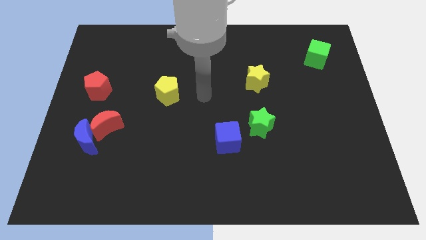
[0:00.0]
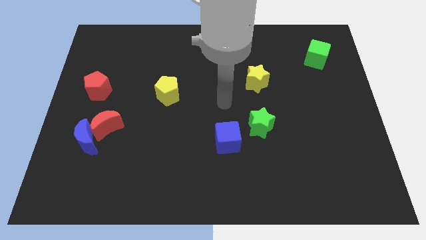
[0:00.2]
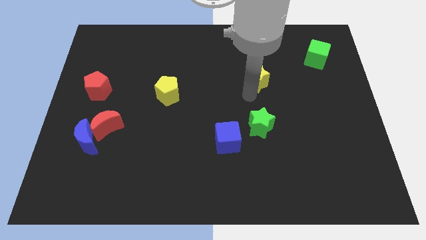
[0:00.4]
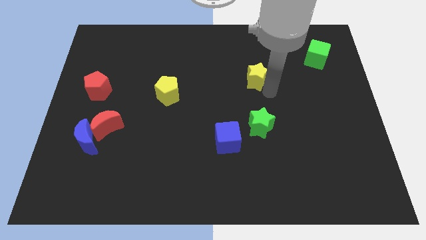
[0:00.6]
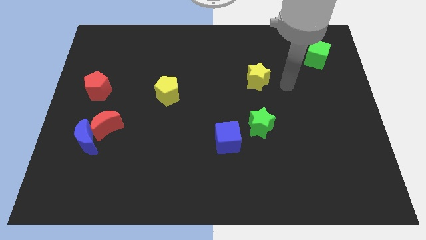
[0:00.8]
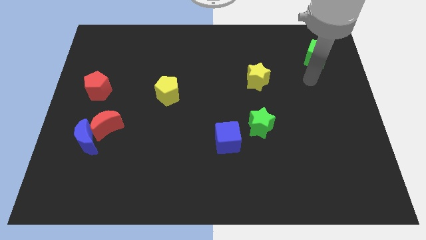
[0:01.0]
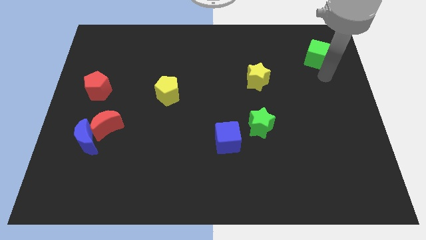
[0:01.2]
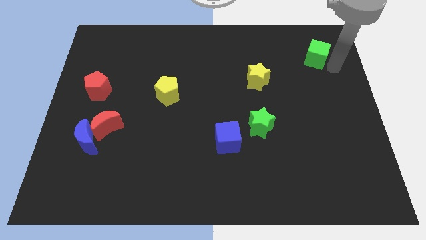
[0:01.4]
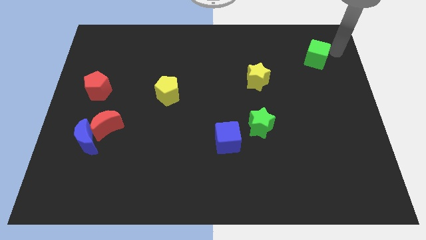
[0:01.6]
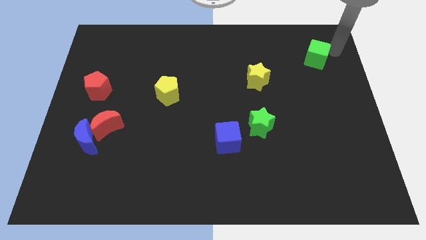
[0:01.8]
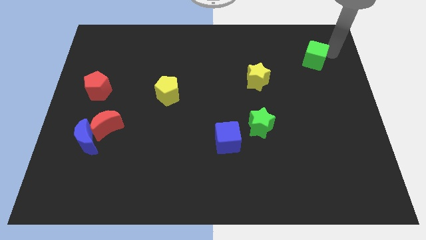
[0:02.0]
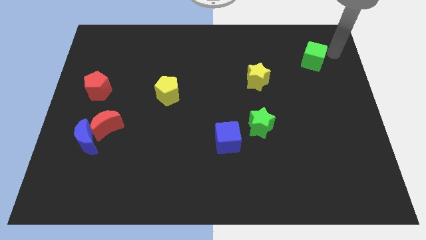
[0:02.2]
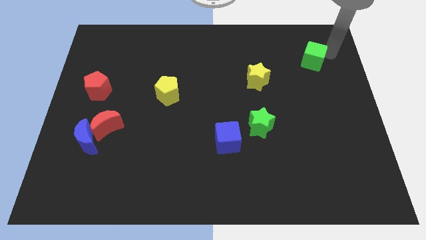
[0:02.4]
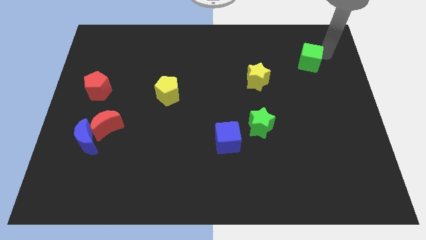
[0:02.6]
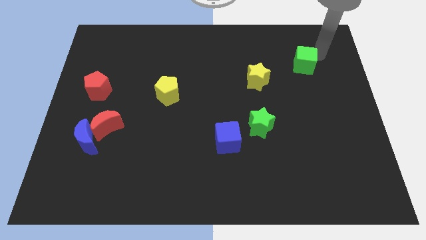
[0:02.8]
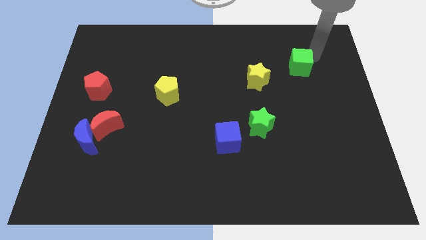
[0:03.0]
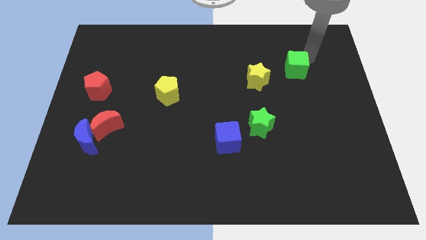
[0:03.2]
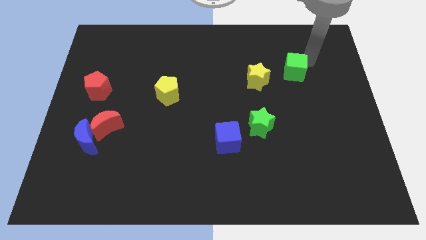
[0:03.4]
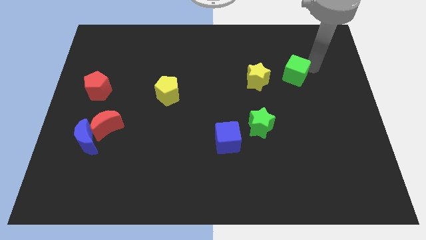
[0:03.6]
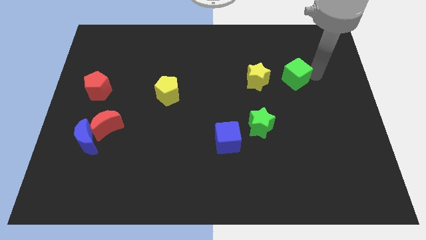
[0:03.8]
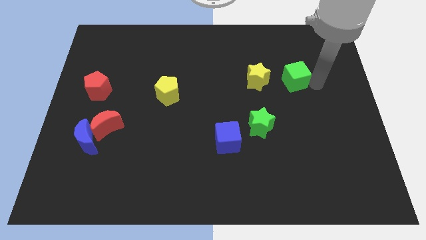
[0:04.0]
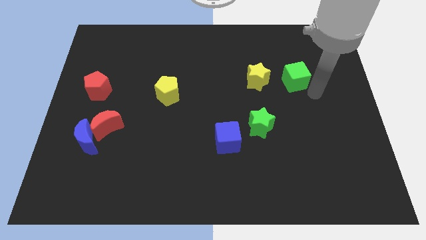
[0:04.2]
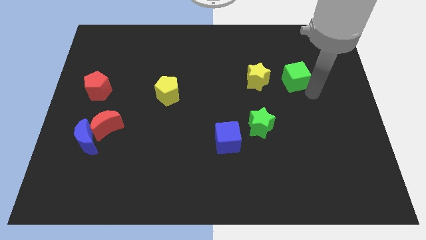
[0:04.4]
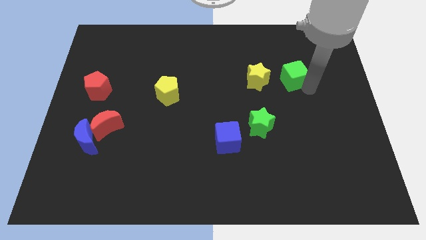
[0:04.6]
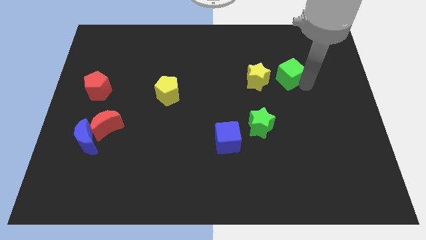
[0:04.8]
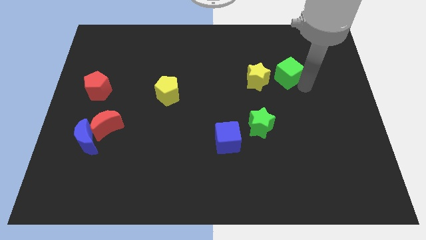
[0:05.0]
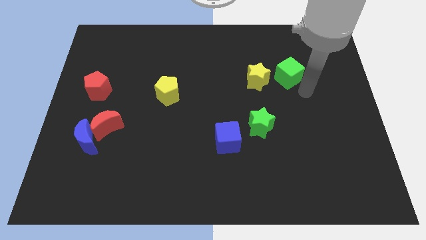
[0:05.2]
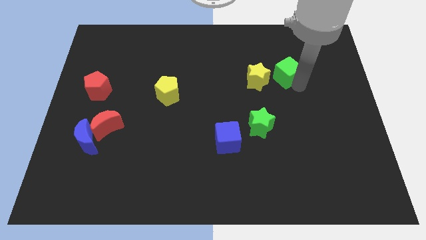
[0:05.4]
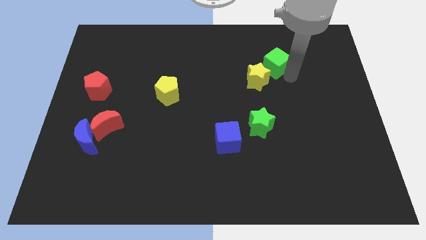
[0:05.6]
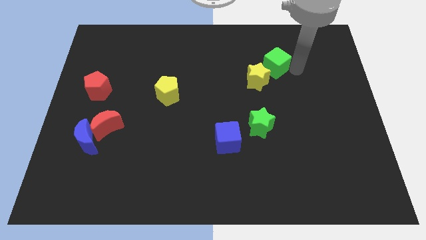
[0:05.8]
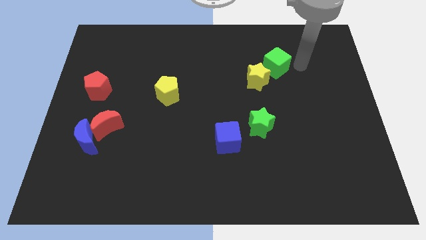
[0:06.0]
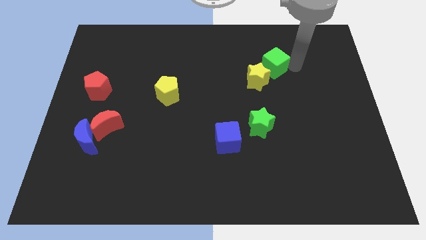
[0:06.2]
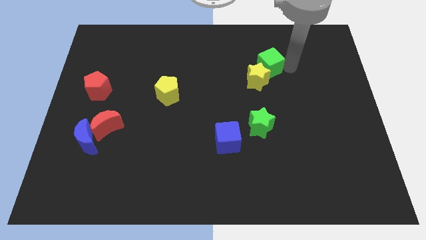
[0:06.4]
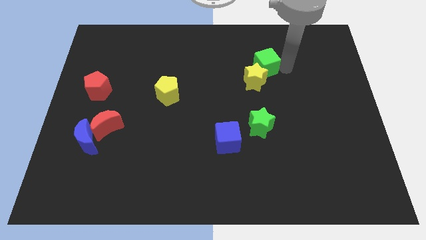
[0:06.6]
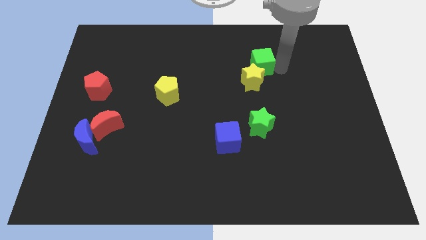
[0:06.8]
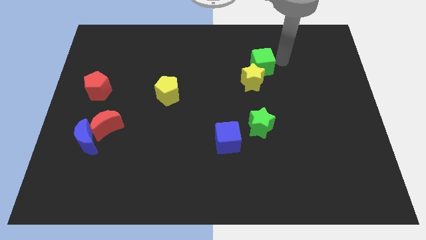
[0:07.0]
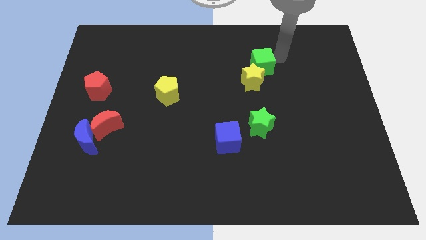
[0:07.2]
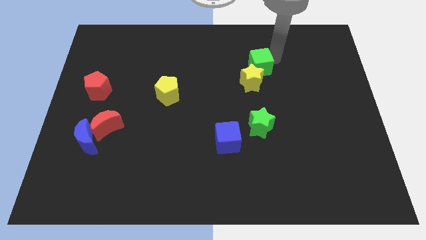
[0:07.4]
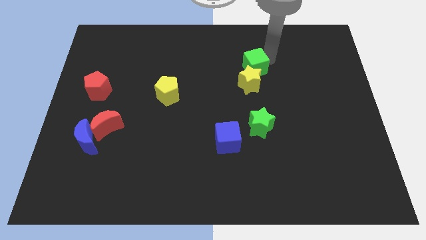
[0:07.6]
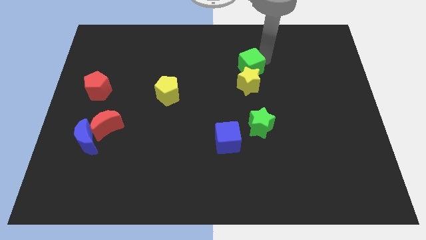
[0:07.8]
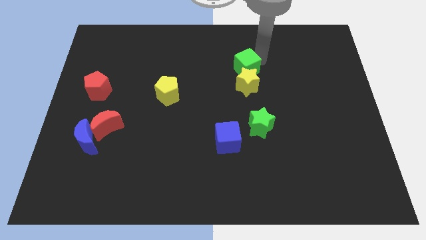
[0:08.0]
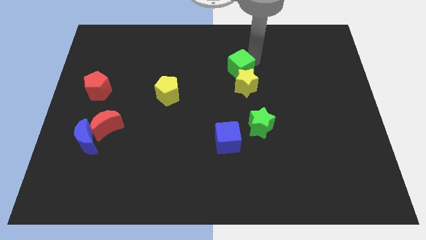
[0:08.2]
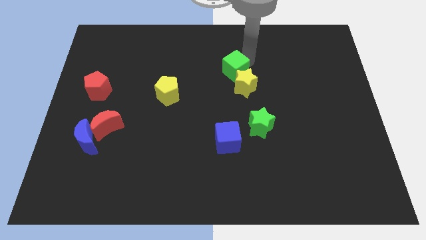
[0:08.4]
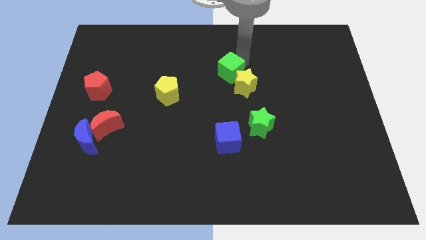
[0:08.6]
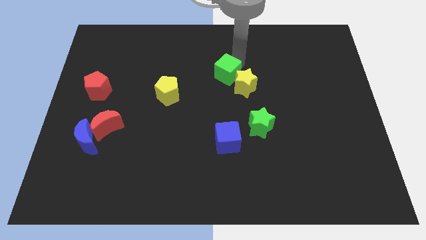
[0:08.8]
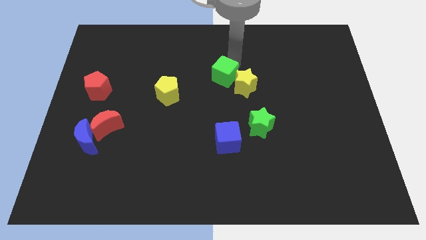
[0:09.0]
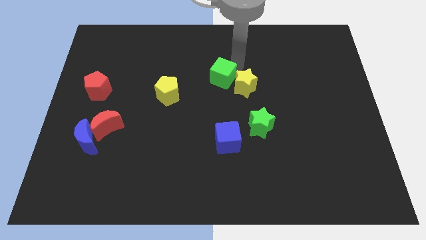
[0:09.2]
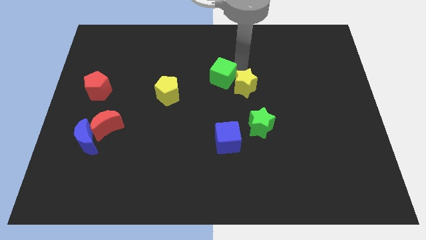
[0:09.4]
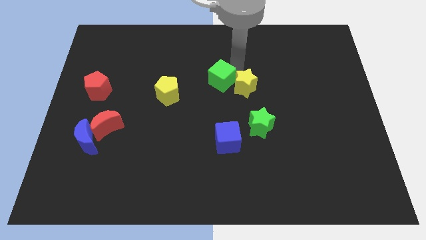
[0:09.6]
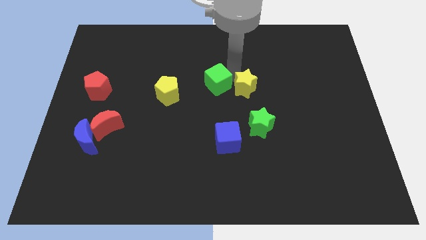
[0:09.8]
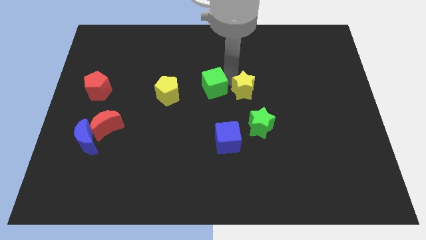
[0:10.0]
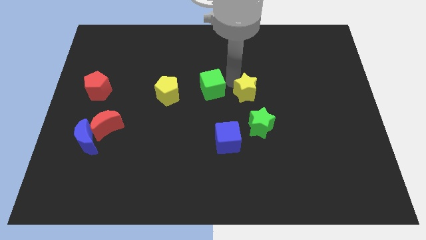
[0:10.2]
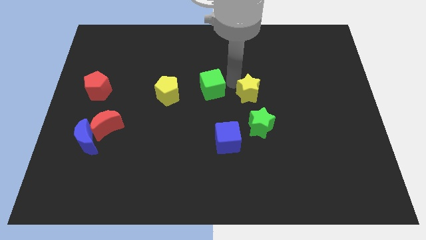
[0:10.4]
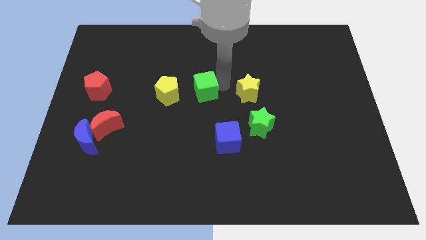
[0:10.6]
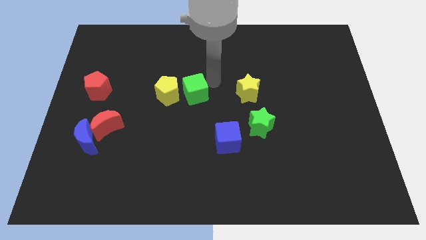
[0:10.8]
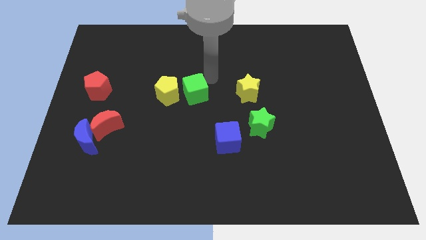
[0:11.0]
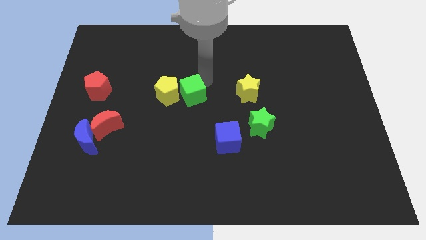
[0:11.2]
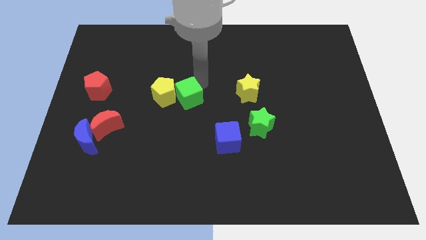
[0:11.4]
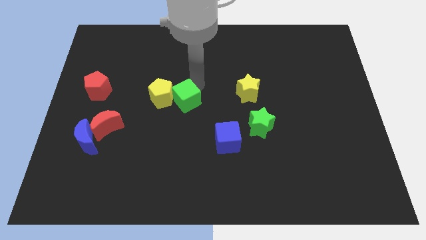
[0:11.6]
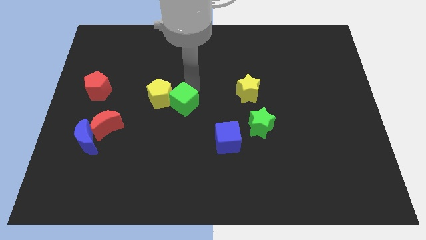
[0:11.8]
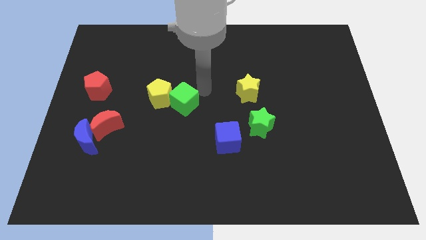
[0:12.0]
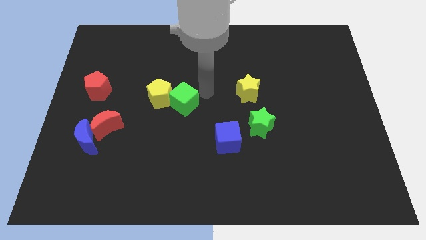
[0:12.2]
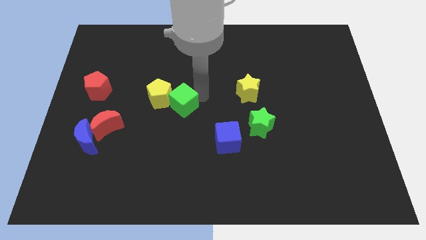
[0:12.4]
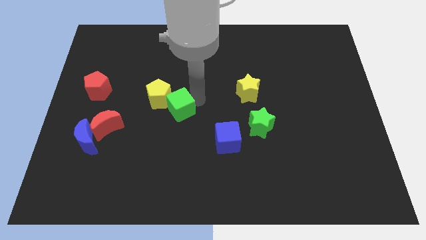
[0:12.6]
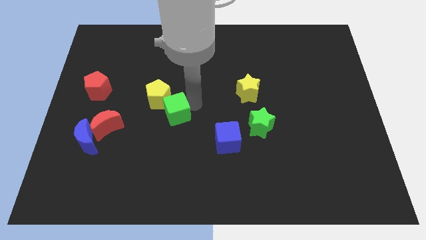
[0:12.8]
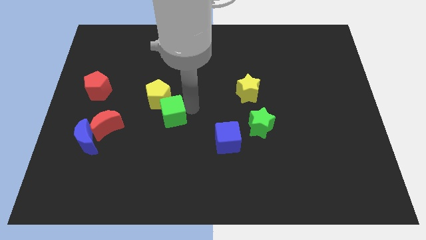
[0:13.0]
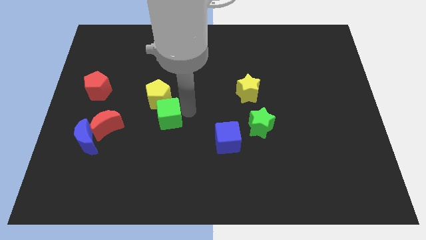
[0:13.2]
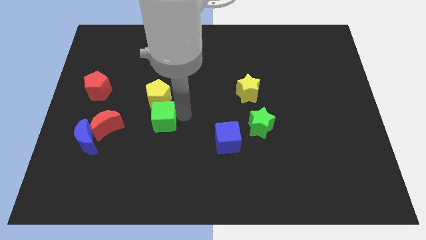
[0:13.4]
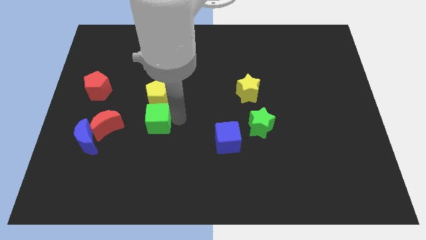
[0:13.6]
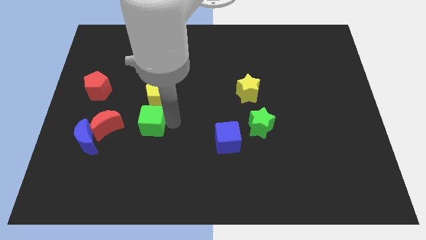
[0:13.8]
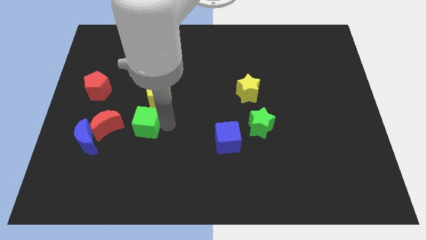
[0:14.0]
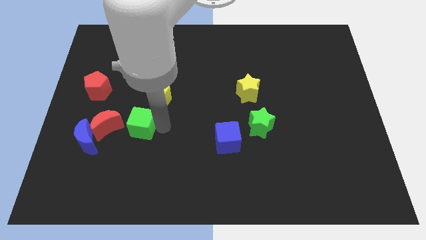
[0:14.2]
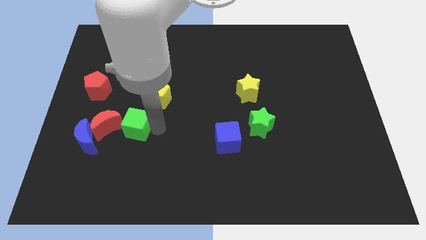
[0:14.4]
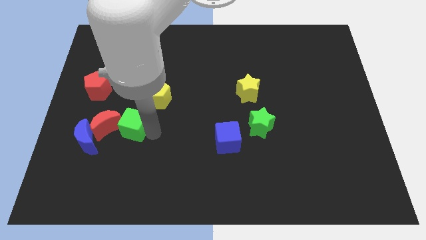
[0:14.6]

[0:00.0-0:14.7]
put the green cube next to the red moon
